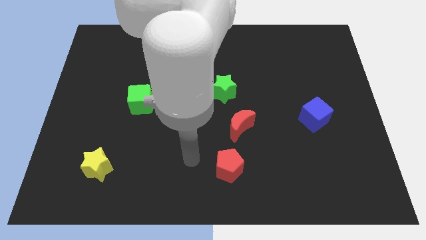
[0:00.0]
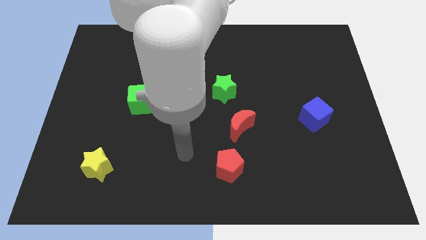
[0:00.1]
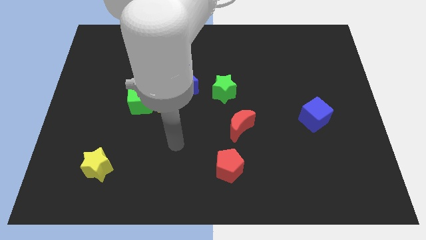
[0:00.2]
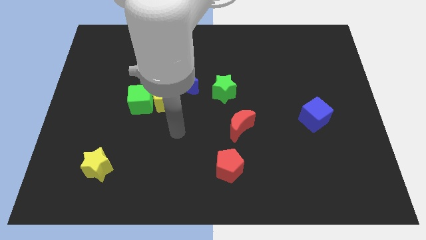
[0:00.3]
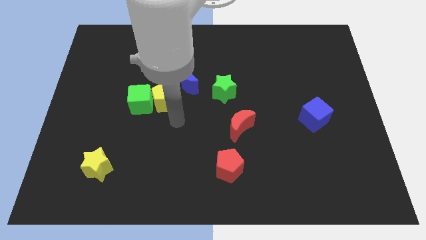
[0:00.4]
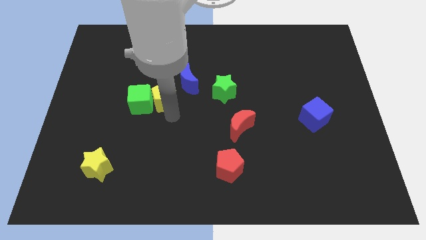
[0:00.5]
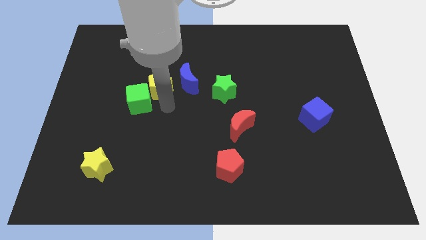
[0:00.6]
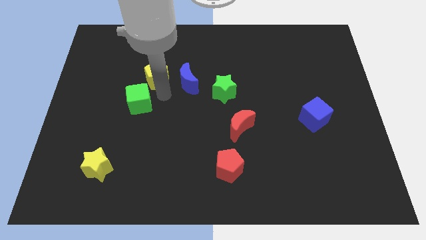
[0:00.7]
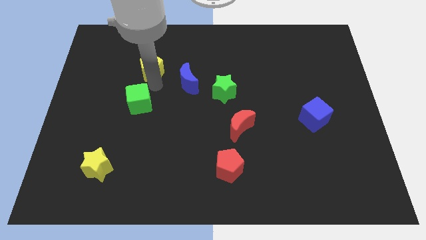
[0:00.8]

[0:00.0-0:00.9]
move the green cube away from the yellow pentagon

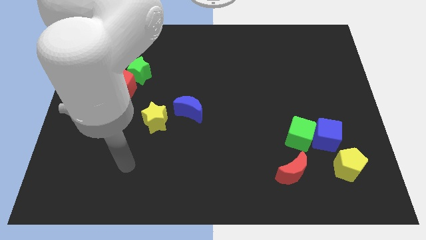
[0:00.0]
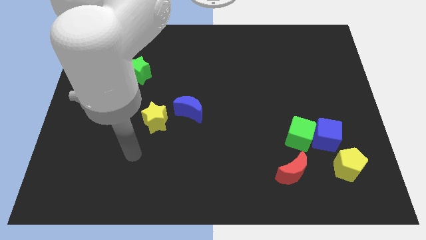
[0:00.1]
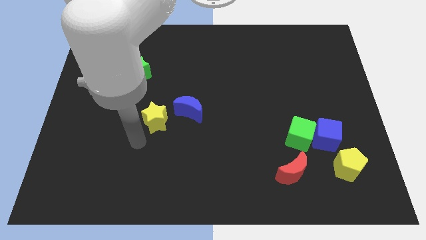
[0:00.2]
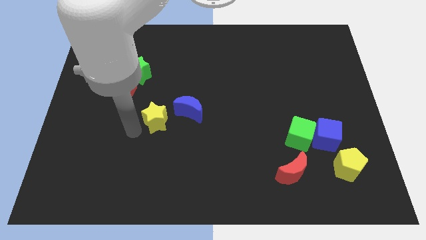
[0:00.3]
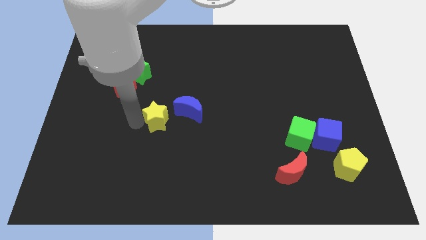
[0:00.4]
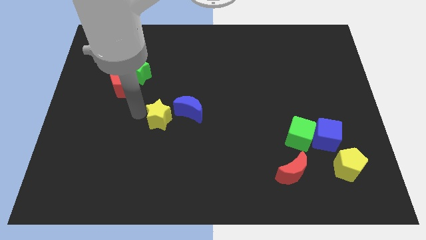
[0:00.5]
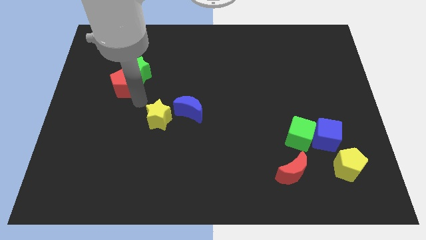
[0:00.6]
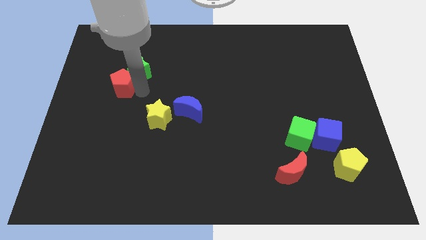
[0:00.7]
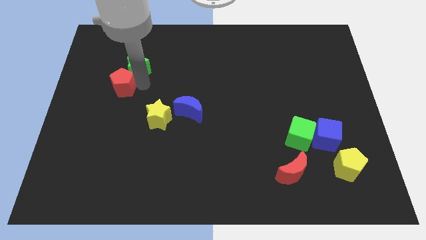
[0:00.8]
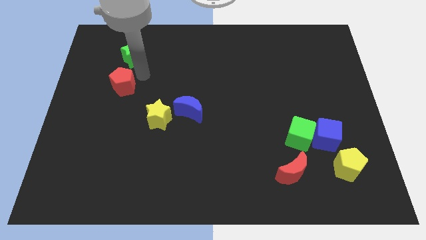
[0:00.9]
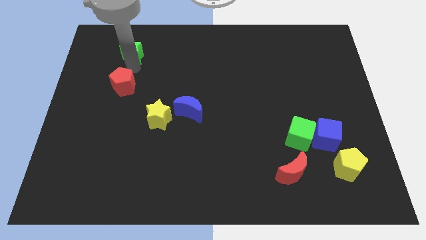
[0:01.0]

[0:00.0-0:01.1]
pull the red pentagon apart from the green star

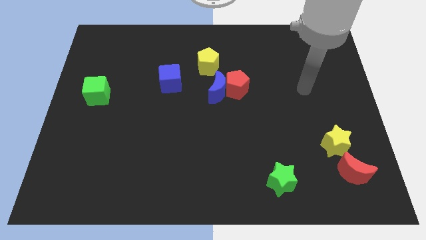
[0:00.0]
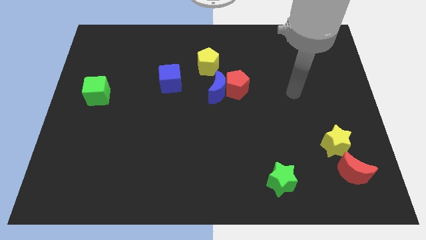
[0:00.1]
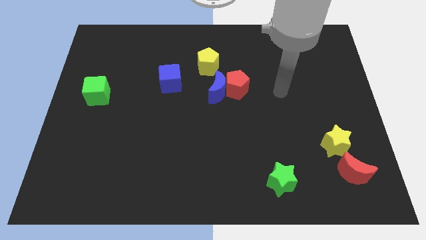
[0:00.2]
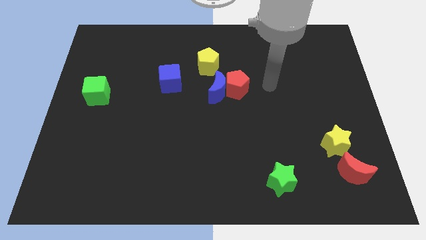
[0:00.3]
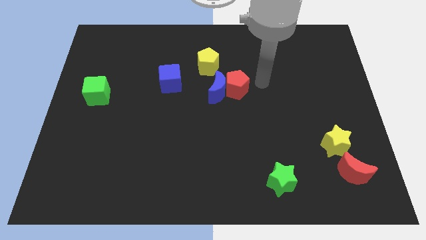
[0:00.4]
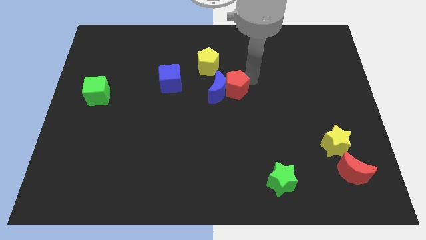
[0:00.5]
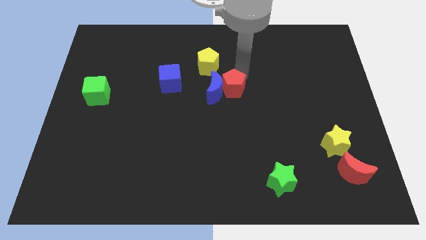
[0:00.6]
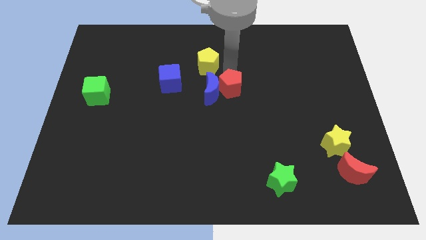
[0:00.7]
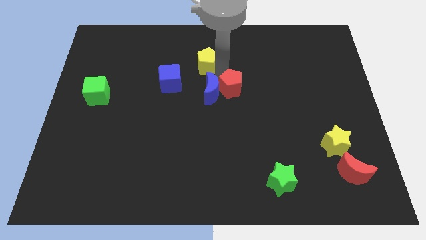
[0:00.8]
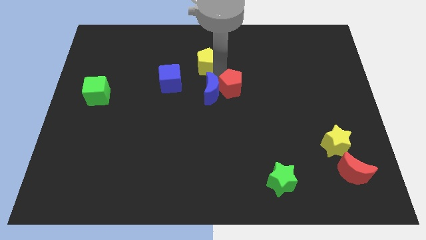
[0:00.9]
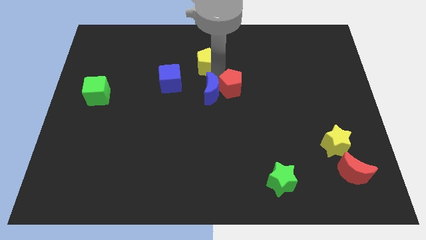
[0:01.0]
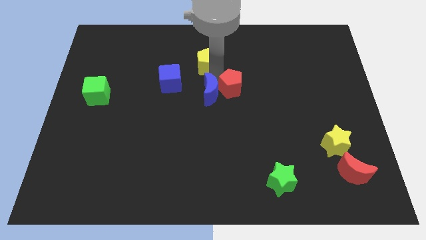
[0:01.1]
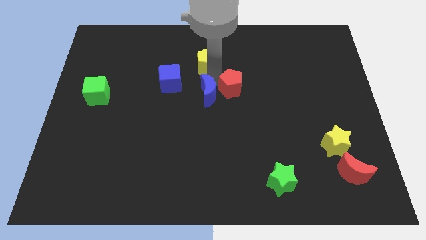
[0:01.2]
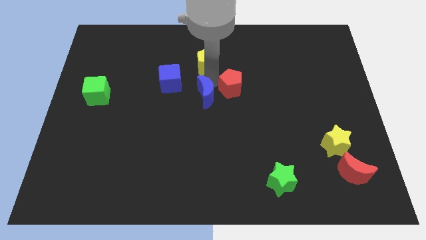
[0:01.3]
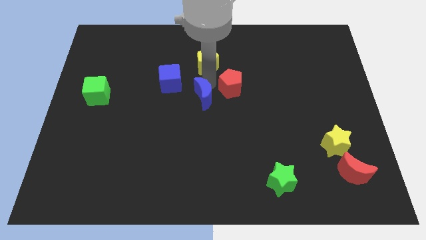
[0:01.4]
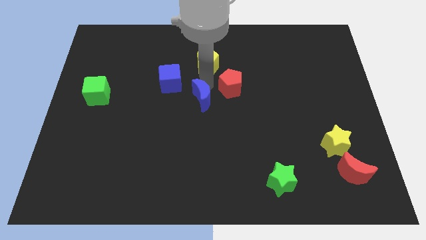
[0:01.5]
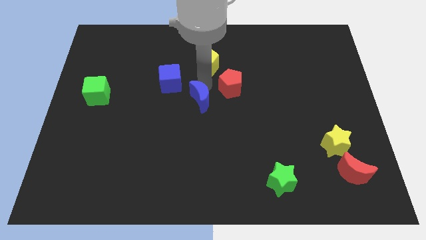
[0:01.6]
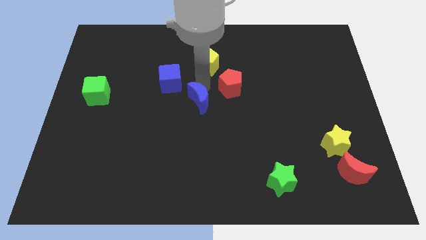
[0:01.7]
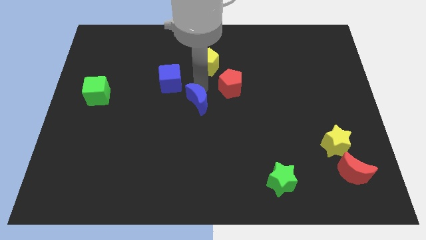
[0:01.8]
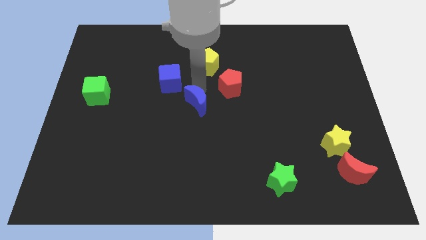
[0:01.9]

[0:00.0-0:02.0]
pull the blue moon apart from the red pentagon and yellow pentagon

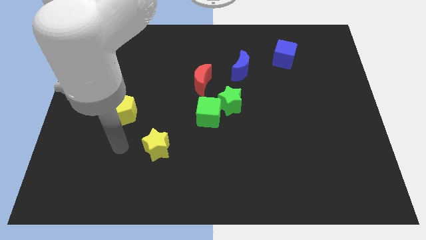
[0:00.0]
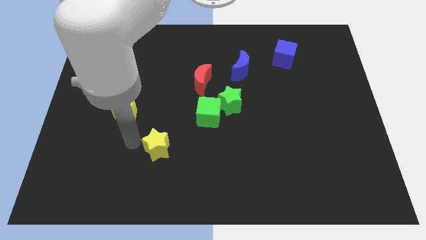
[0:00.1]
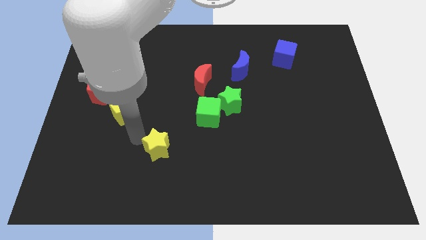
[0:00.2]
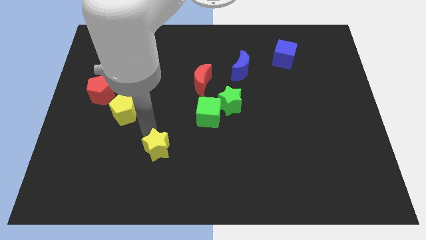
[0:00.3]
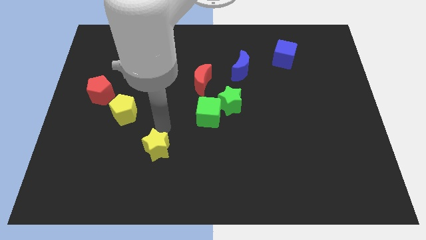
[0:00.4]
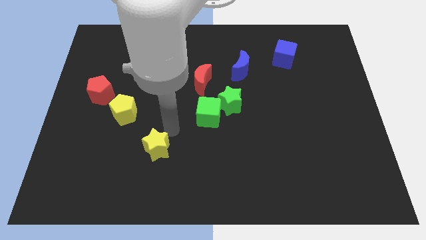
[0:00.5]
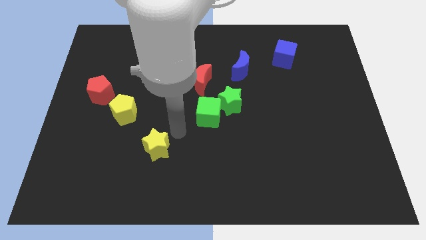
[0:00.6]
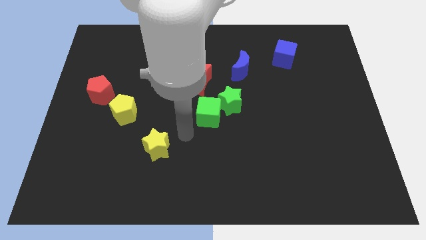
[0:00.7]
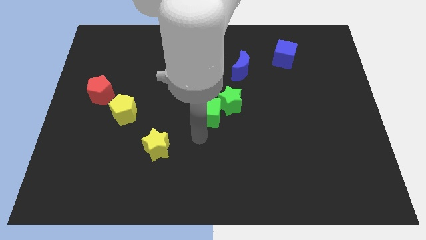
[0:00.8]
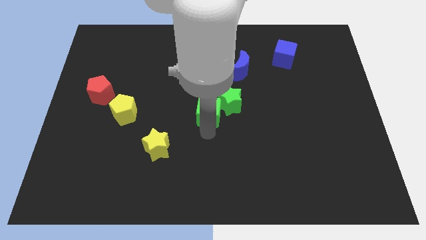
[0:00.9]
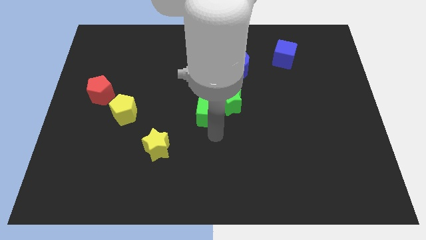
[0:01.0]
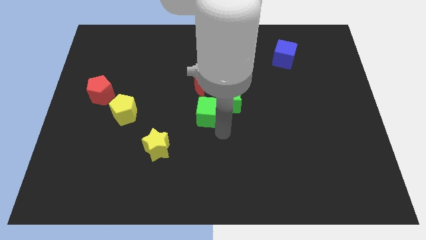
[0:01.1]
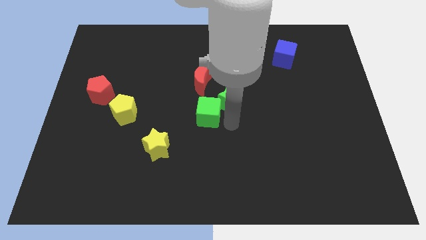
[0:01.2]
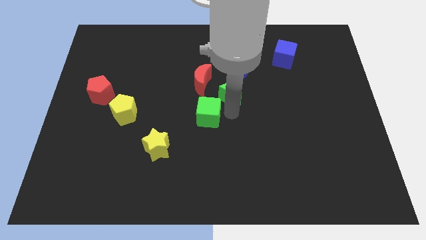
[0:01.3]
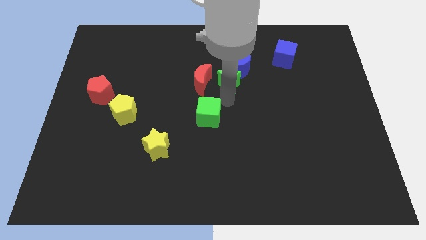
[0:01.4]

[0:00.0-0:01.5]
pull the green cube apart from the green star

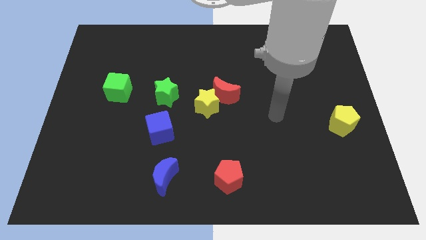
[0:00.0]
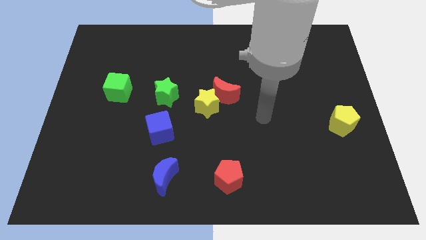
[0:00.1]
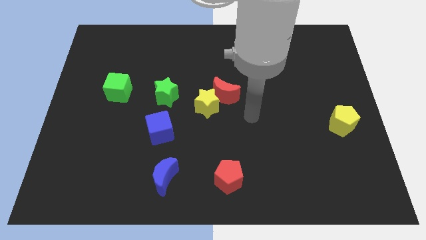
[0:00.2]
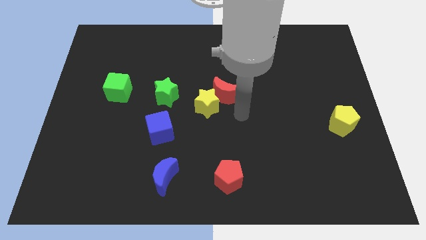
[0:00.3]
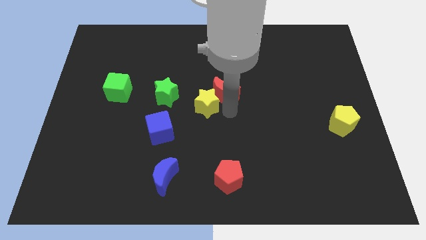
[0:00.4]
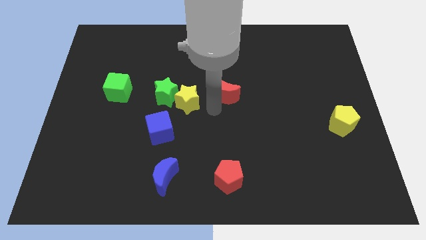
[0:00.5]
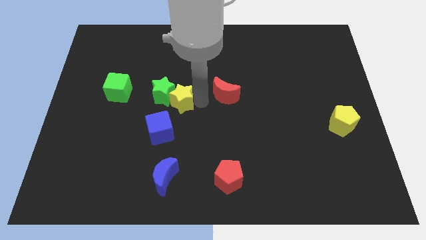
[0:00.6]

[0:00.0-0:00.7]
separate the red moon from the yellow star

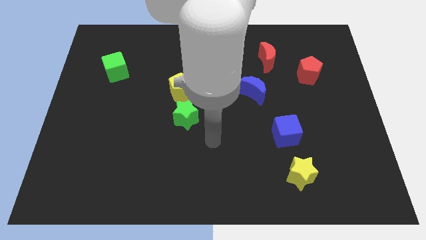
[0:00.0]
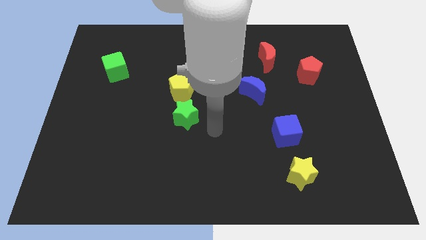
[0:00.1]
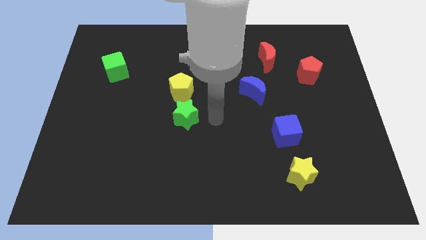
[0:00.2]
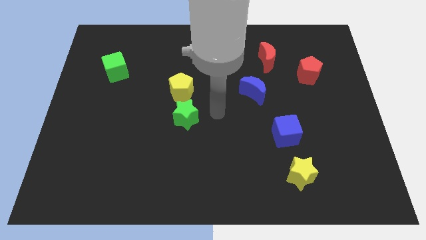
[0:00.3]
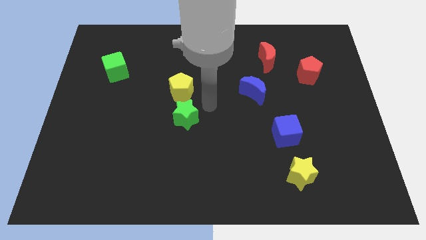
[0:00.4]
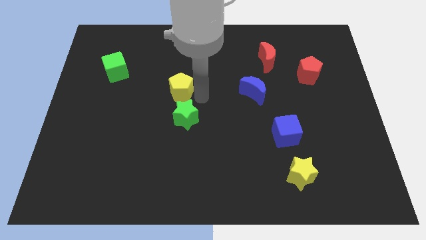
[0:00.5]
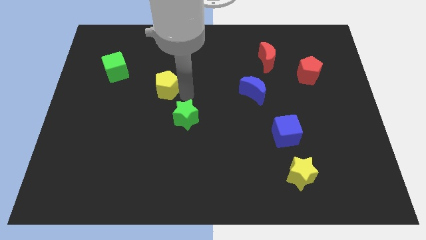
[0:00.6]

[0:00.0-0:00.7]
move the green star away from the yellow pentagon

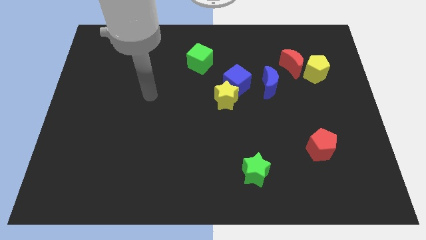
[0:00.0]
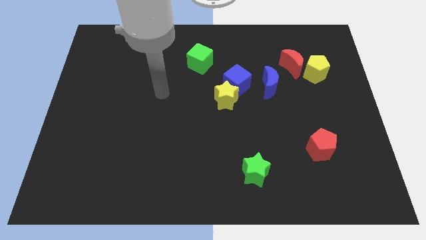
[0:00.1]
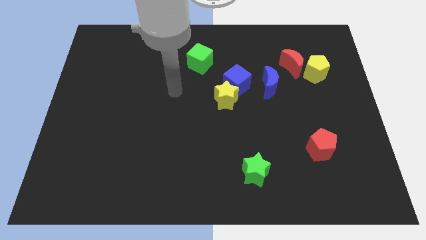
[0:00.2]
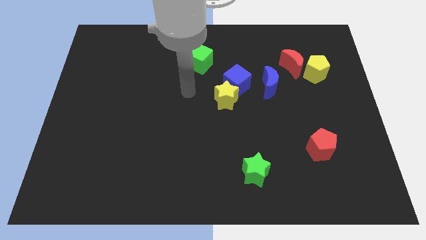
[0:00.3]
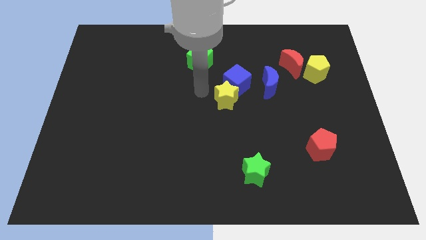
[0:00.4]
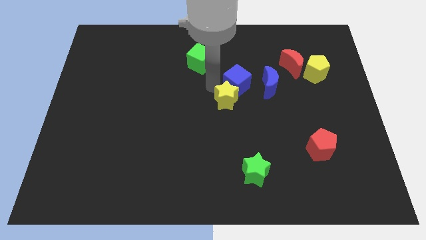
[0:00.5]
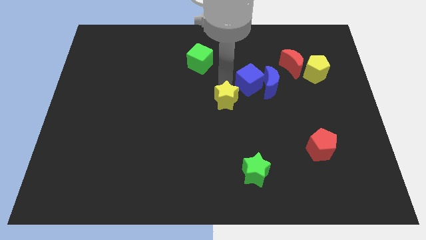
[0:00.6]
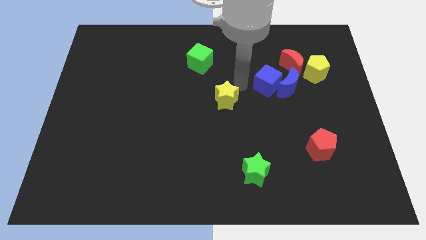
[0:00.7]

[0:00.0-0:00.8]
pull the yellow star apart from the blue cube

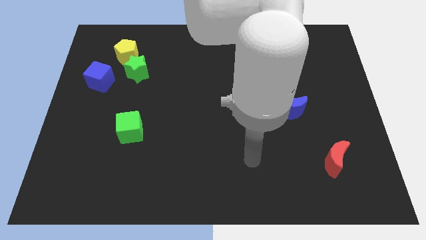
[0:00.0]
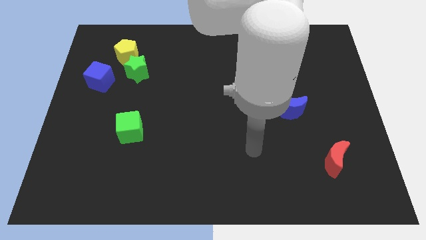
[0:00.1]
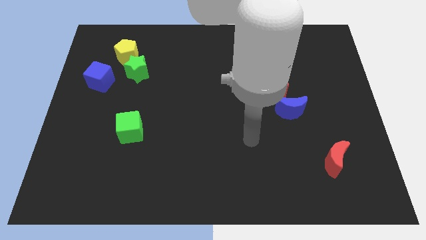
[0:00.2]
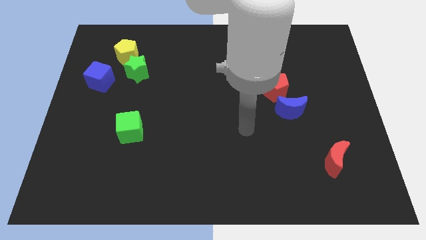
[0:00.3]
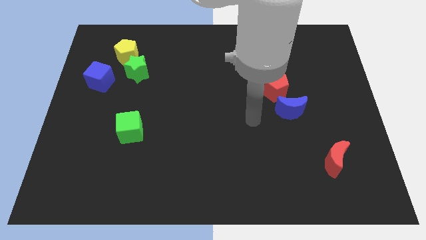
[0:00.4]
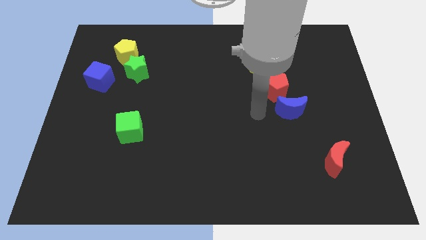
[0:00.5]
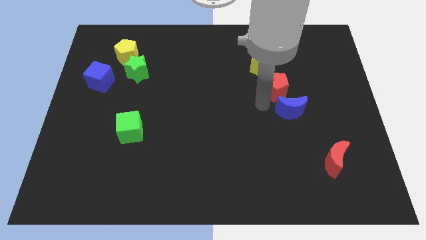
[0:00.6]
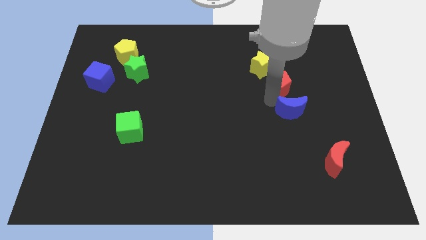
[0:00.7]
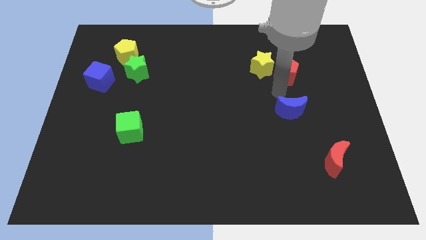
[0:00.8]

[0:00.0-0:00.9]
move the blue moon away from the red pentagon

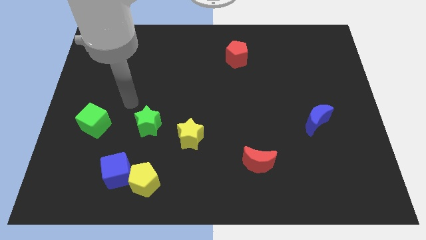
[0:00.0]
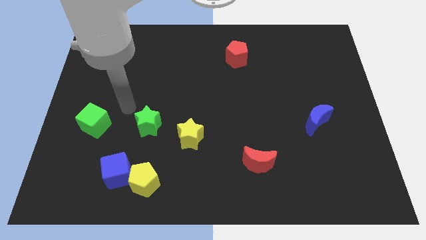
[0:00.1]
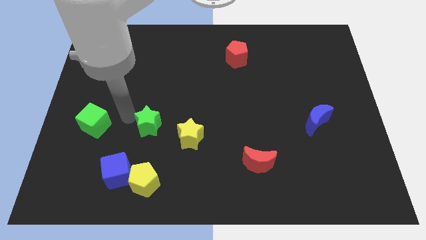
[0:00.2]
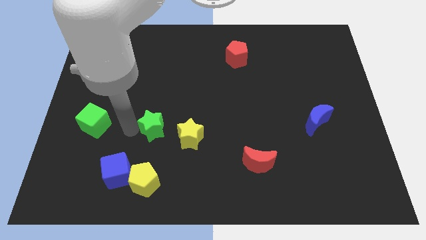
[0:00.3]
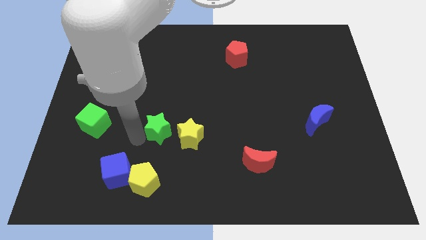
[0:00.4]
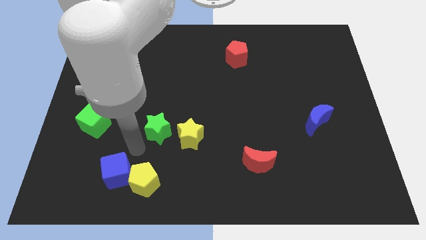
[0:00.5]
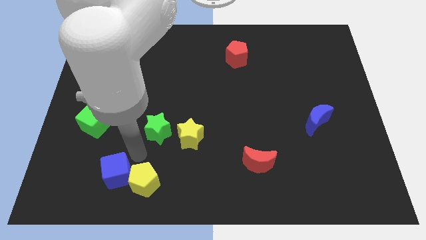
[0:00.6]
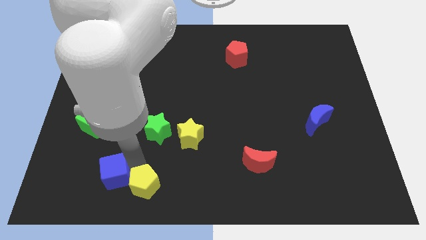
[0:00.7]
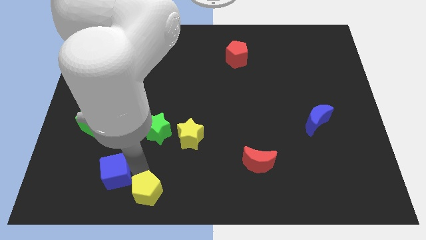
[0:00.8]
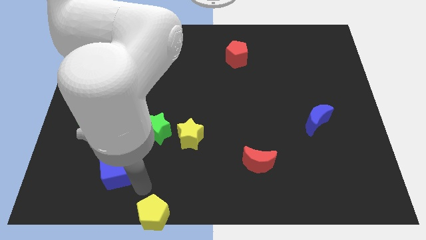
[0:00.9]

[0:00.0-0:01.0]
pull the blue cube apart from the yellow pentagon
